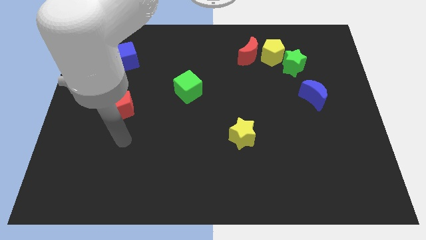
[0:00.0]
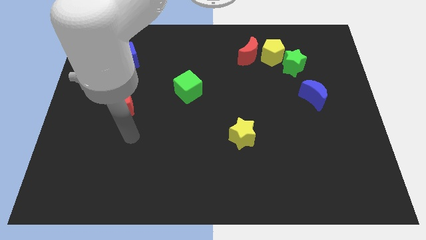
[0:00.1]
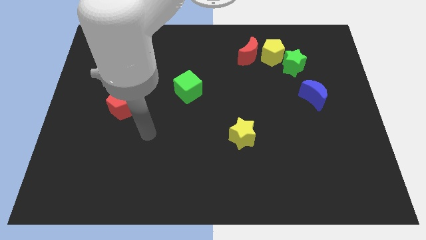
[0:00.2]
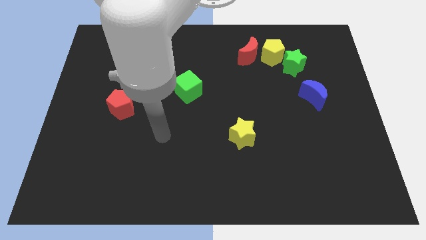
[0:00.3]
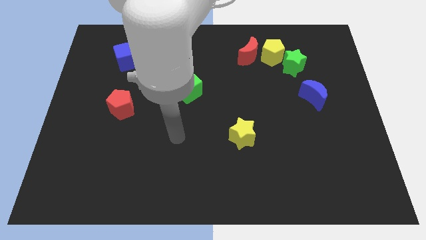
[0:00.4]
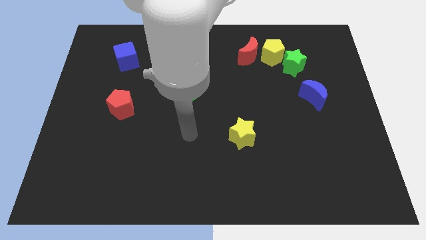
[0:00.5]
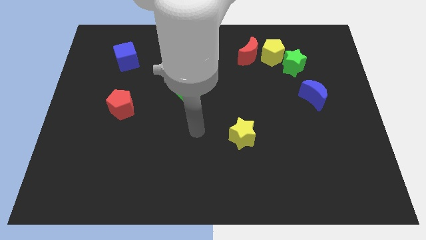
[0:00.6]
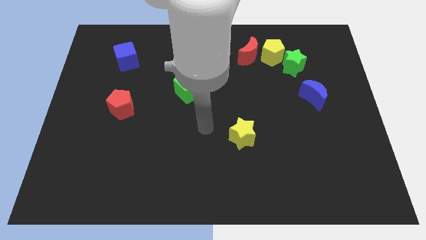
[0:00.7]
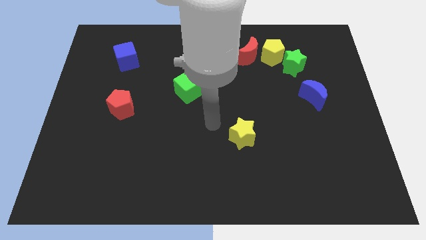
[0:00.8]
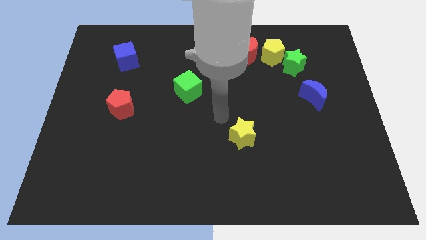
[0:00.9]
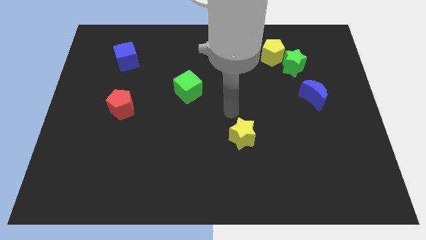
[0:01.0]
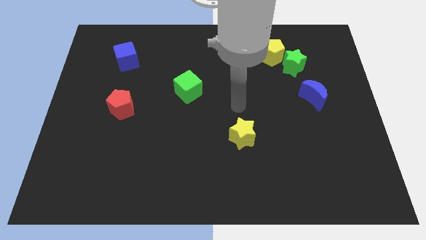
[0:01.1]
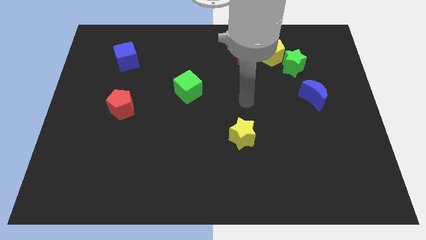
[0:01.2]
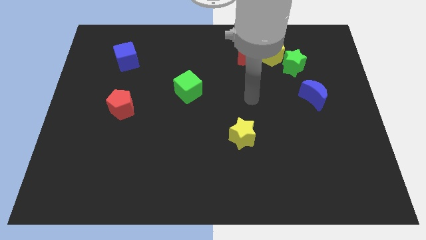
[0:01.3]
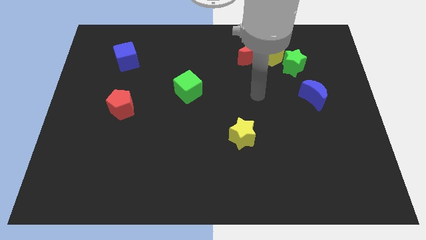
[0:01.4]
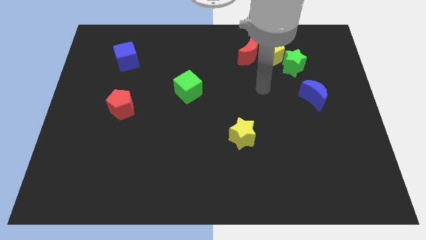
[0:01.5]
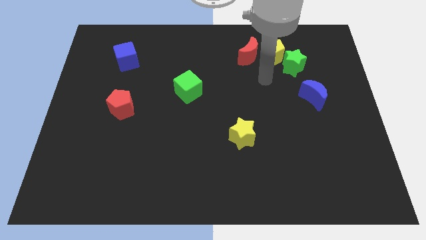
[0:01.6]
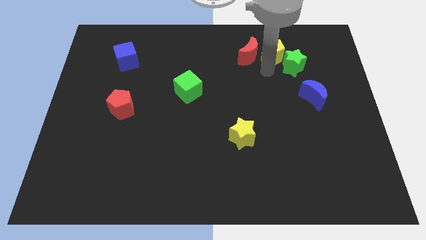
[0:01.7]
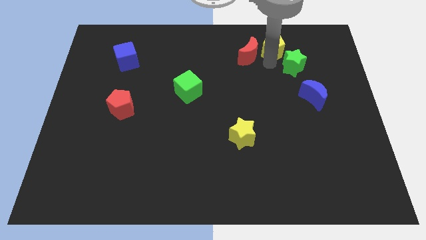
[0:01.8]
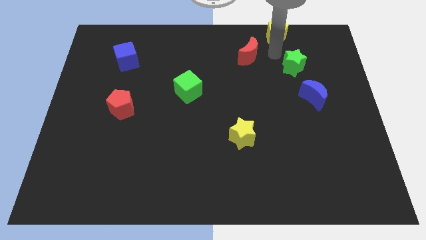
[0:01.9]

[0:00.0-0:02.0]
separate the green star from the yellow pentagon

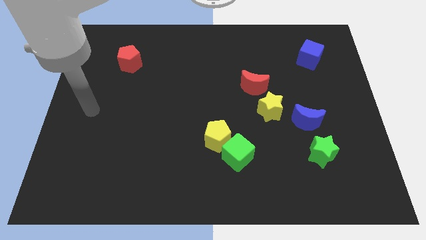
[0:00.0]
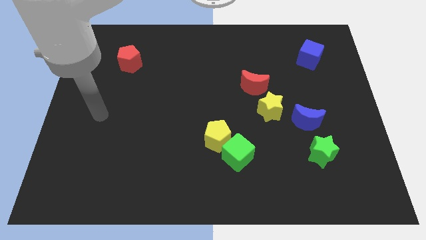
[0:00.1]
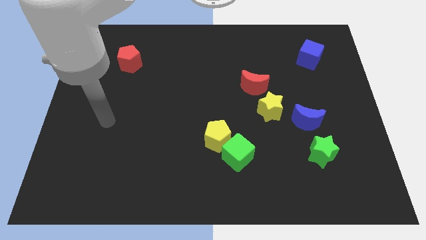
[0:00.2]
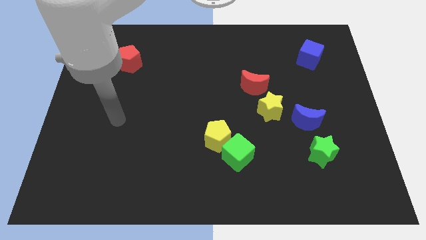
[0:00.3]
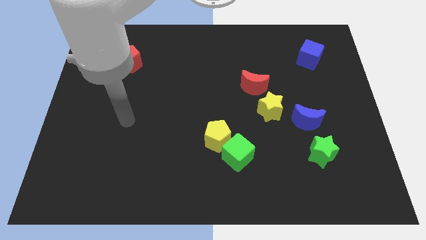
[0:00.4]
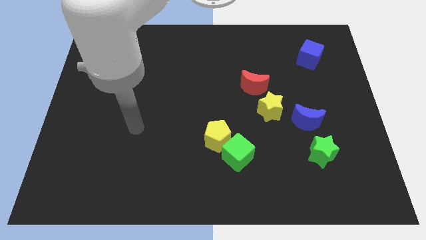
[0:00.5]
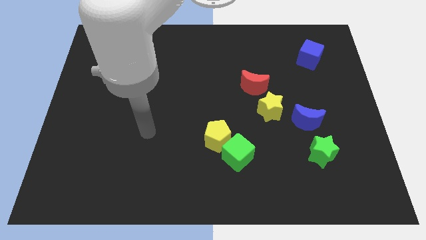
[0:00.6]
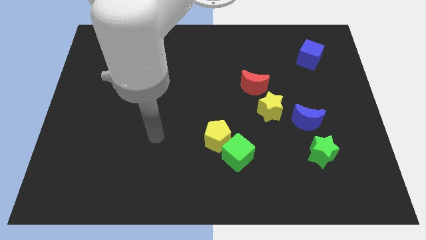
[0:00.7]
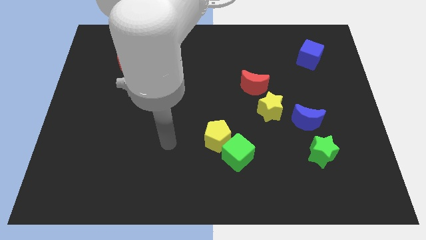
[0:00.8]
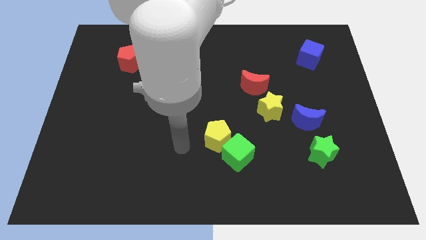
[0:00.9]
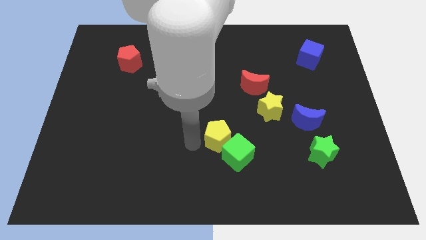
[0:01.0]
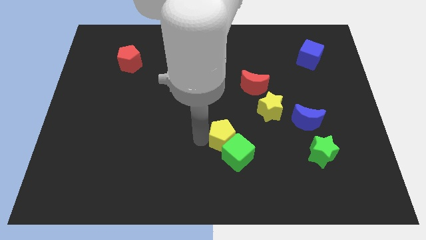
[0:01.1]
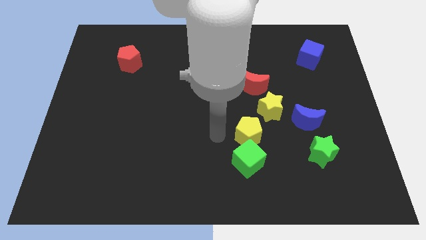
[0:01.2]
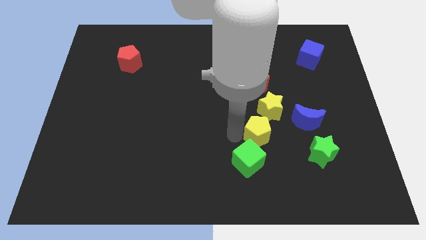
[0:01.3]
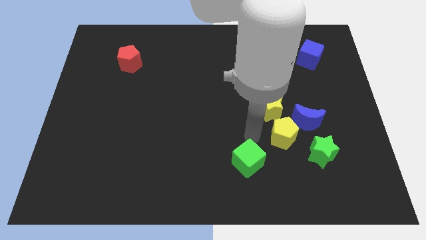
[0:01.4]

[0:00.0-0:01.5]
separate the green cube from the yellow pentagon

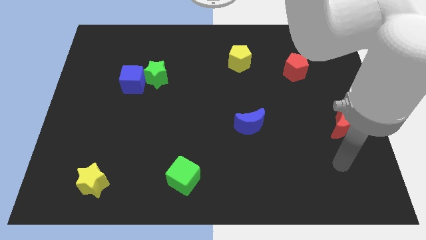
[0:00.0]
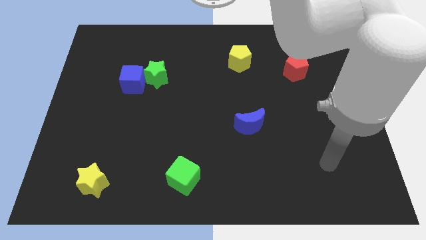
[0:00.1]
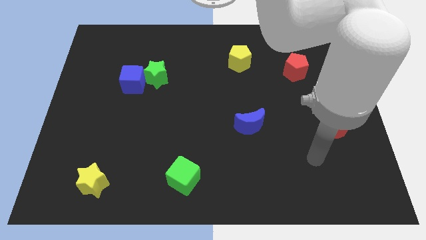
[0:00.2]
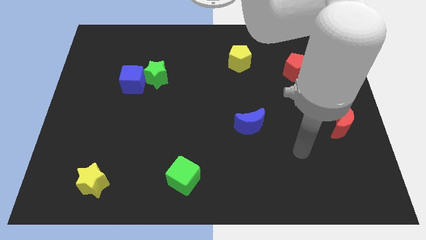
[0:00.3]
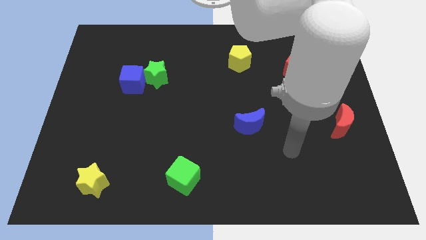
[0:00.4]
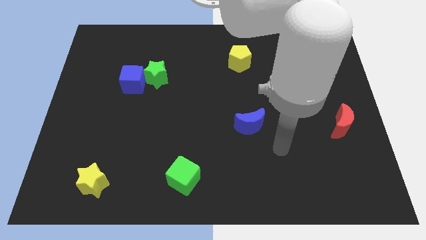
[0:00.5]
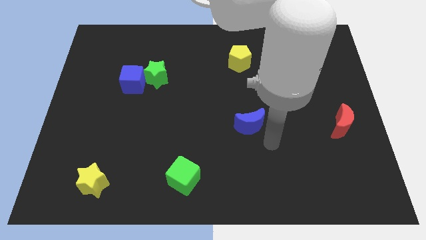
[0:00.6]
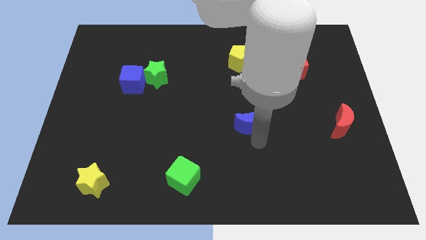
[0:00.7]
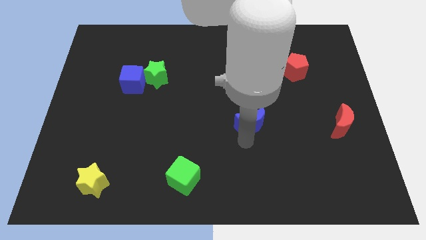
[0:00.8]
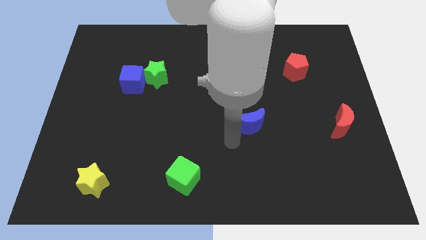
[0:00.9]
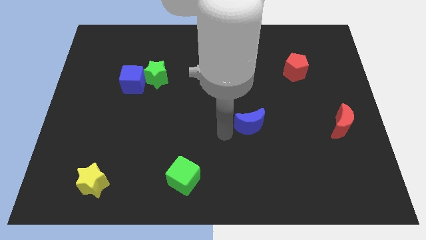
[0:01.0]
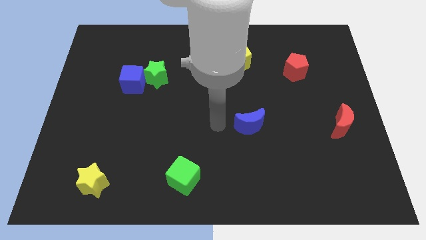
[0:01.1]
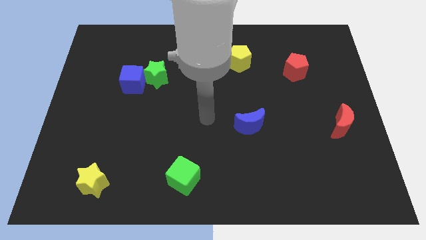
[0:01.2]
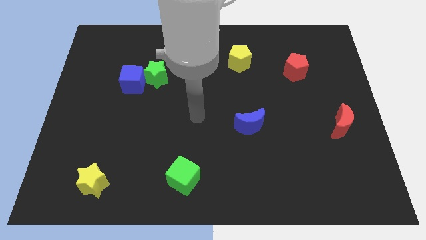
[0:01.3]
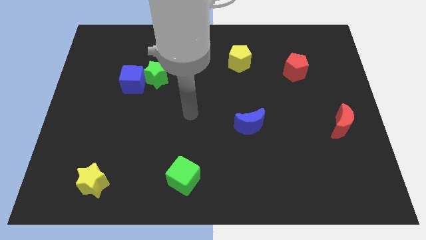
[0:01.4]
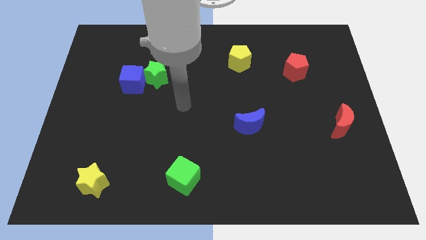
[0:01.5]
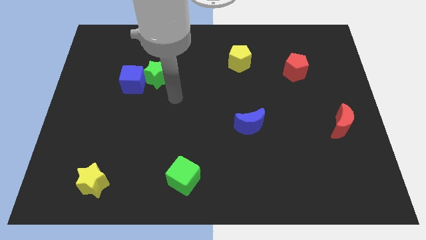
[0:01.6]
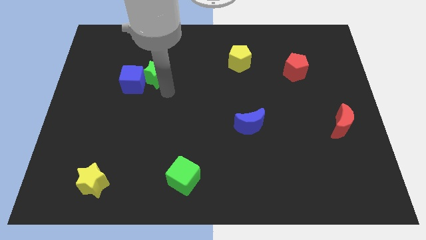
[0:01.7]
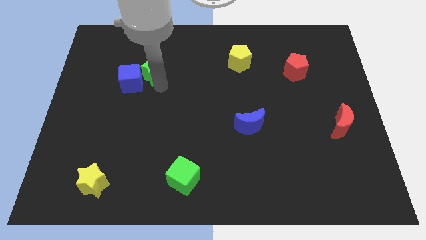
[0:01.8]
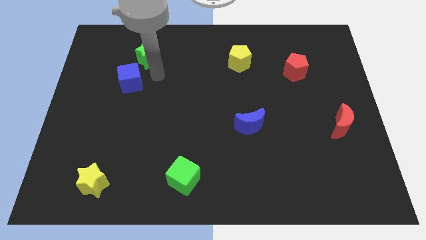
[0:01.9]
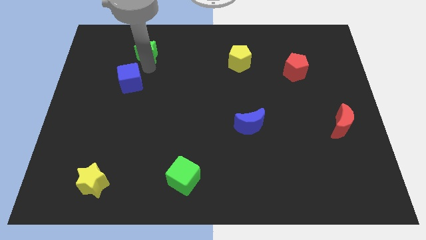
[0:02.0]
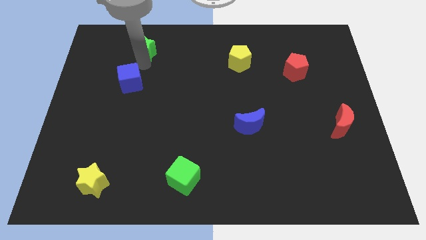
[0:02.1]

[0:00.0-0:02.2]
move the blue cube away from the green star

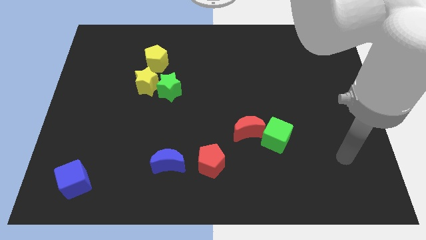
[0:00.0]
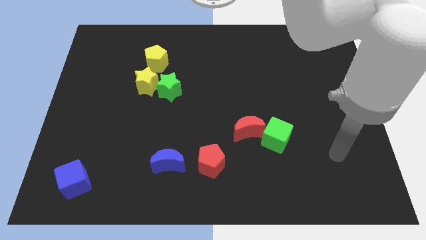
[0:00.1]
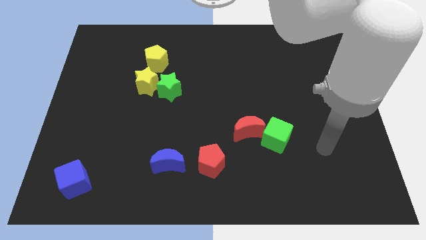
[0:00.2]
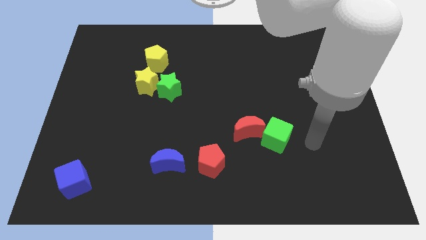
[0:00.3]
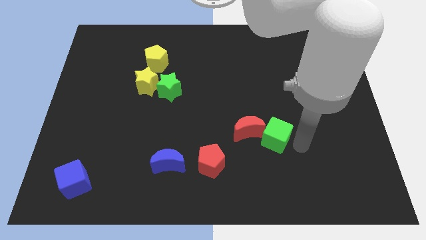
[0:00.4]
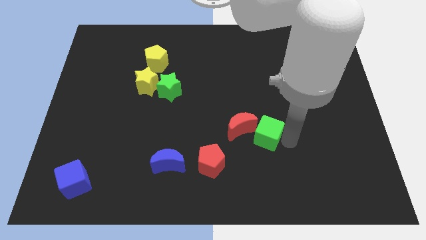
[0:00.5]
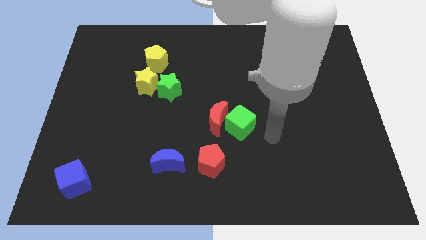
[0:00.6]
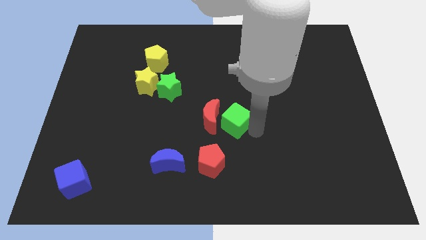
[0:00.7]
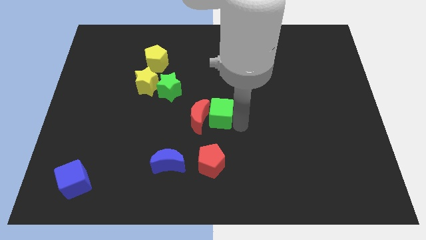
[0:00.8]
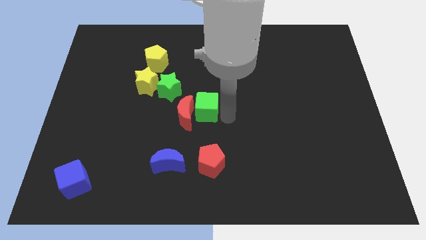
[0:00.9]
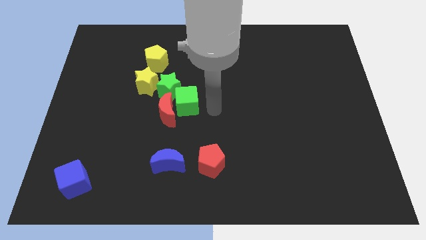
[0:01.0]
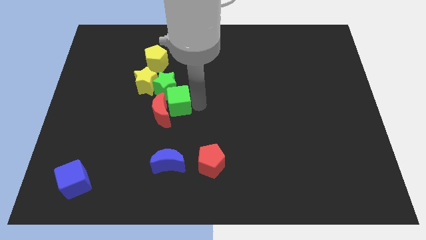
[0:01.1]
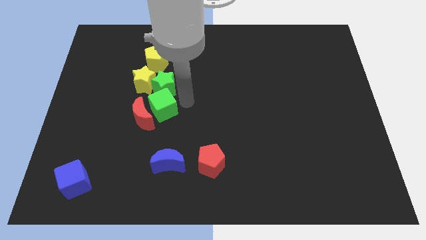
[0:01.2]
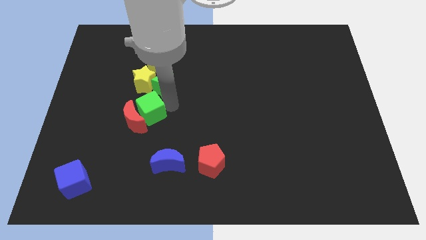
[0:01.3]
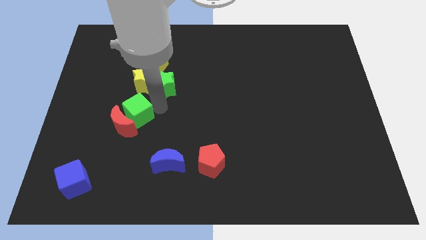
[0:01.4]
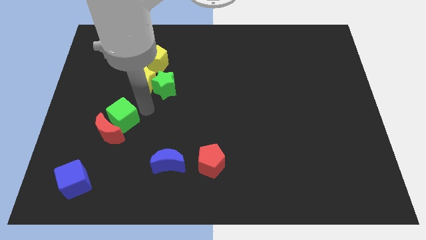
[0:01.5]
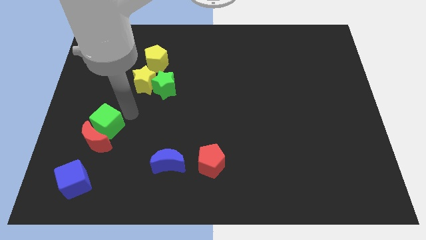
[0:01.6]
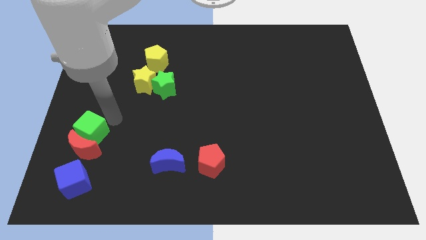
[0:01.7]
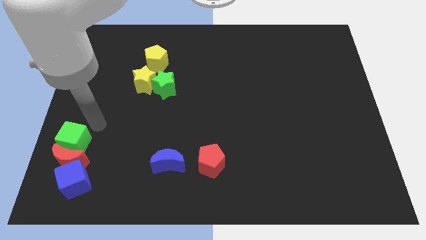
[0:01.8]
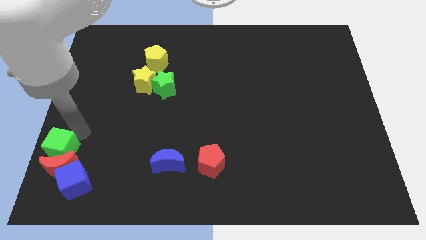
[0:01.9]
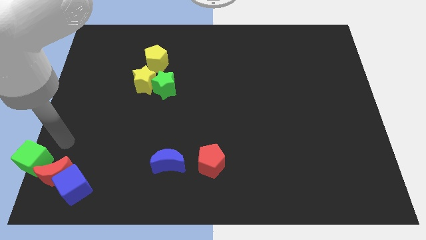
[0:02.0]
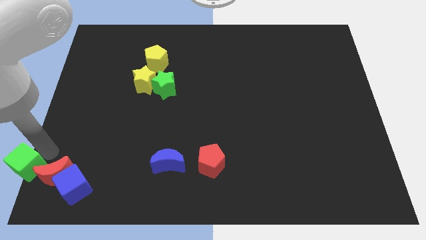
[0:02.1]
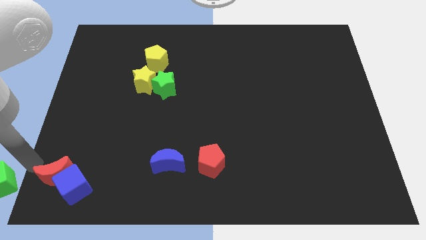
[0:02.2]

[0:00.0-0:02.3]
move the red moon away from the green cube

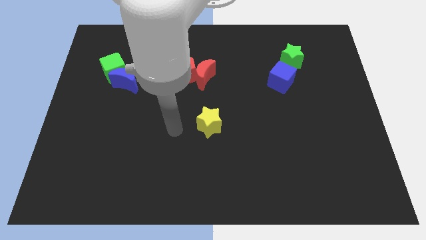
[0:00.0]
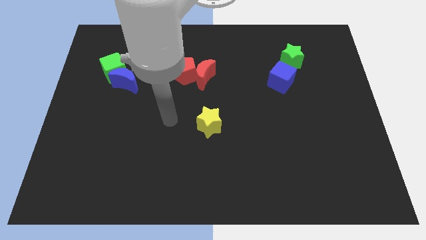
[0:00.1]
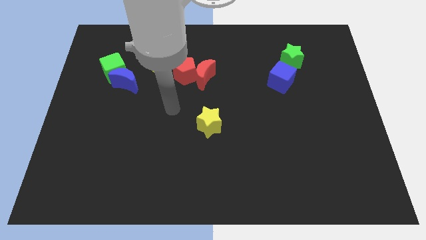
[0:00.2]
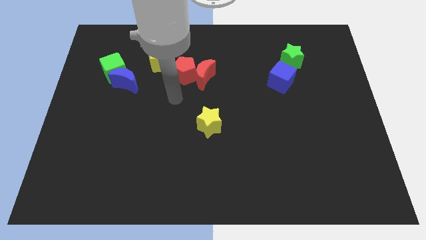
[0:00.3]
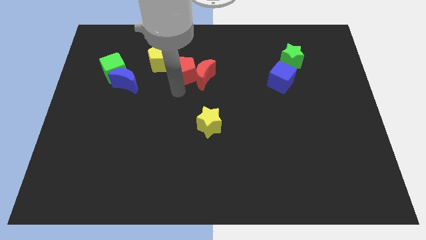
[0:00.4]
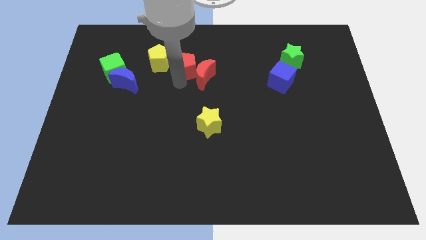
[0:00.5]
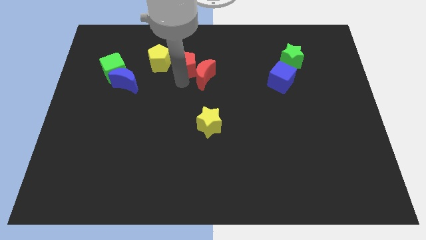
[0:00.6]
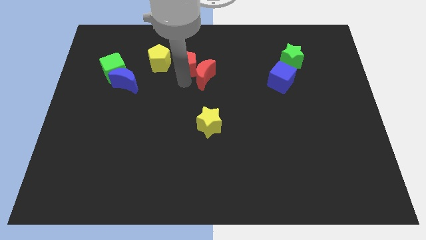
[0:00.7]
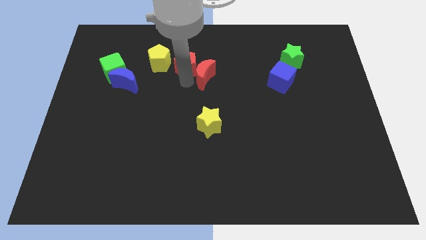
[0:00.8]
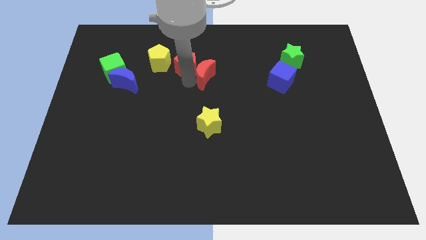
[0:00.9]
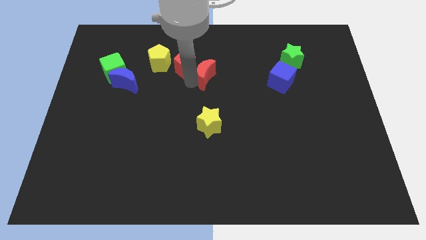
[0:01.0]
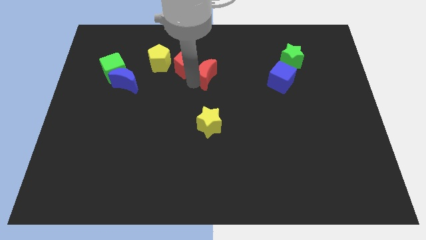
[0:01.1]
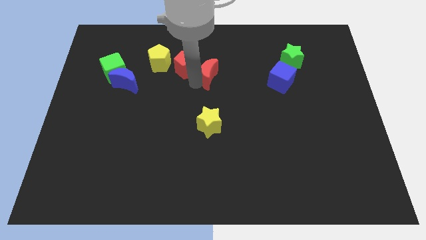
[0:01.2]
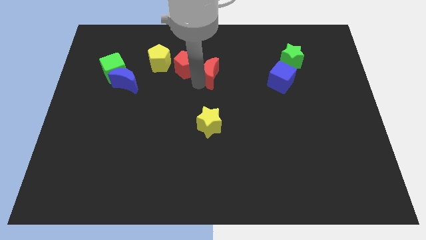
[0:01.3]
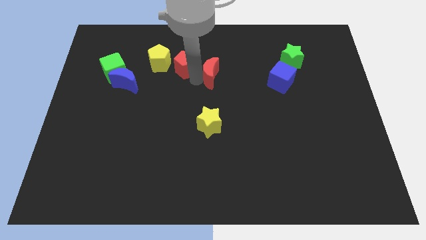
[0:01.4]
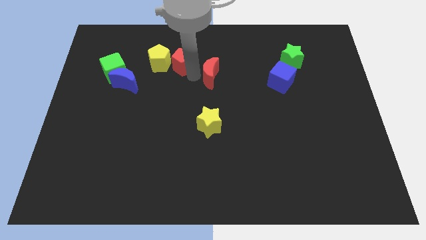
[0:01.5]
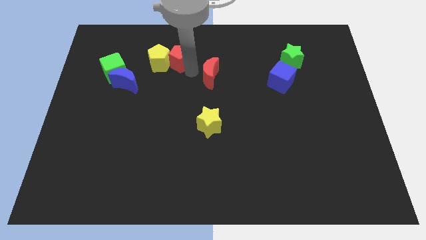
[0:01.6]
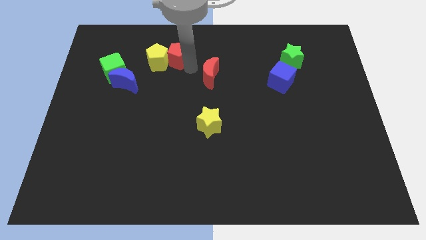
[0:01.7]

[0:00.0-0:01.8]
pull the red moon apart from the red pentagon
